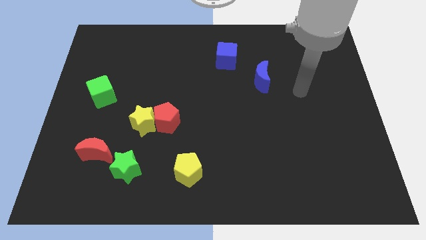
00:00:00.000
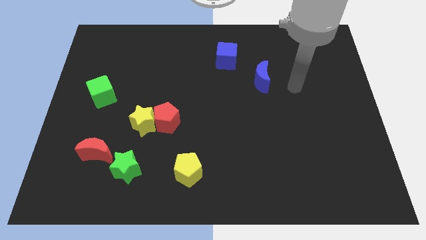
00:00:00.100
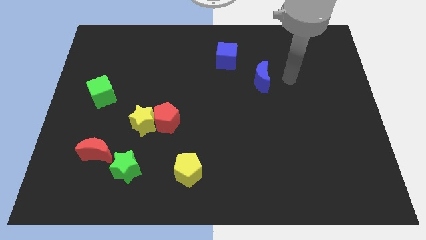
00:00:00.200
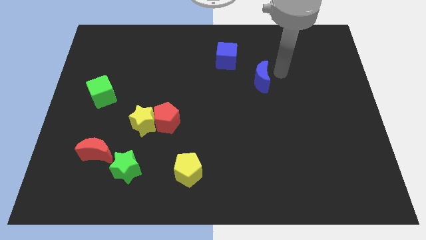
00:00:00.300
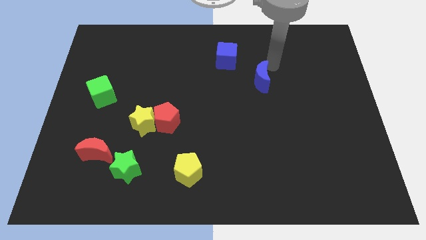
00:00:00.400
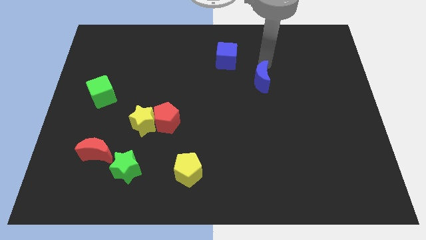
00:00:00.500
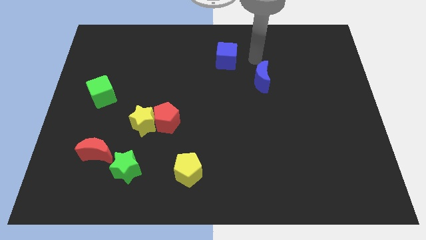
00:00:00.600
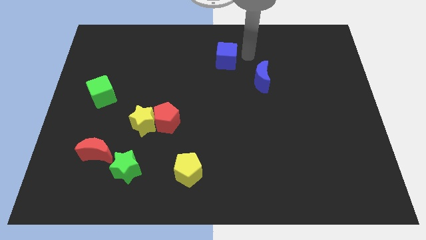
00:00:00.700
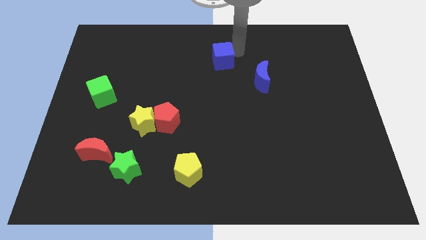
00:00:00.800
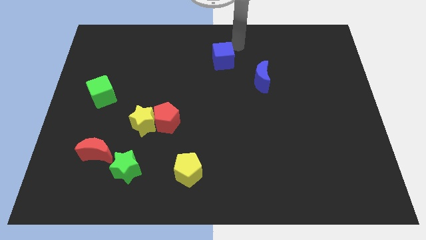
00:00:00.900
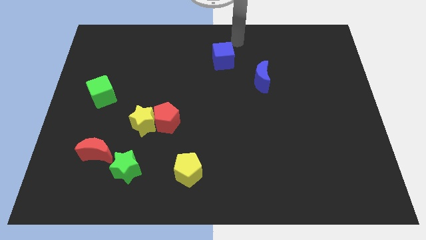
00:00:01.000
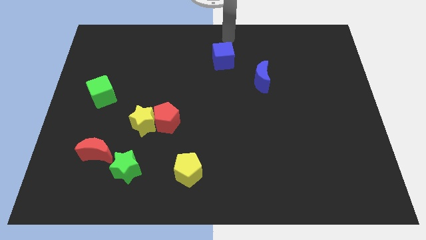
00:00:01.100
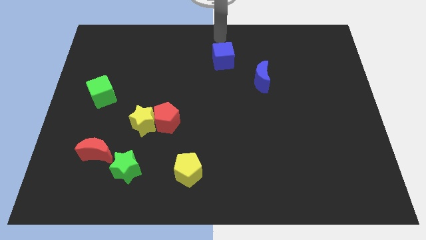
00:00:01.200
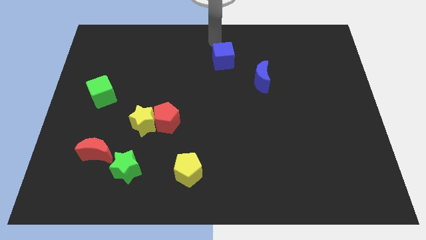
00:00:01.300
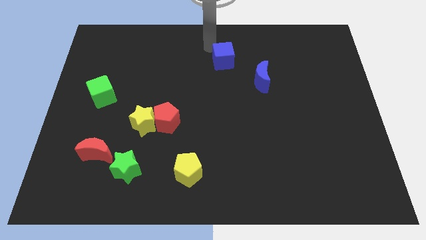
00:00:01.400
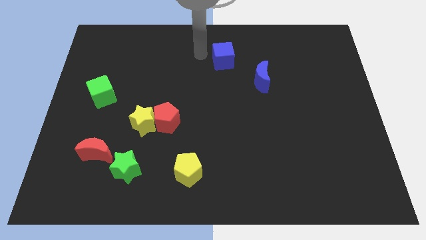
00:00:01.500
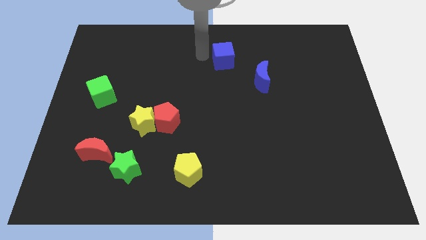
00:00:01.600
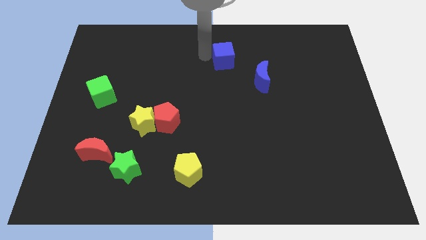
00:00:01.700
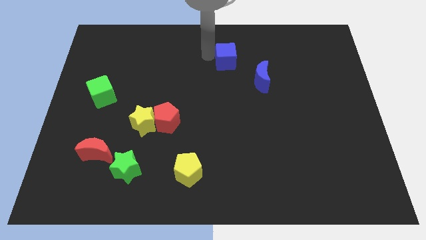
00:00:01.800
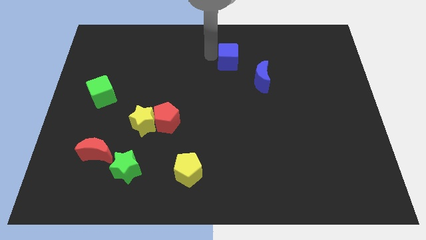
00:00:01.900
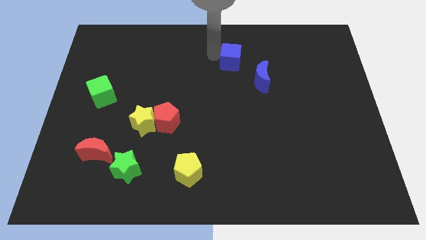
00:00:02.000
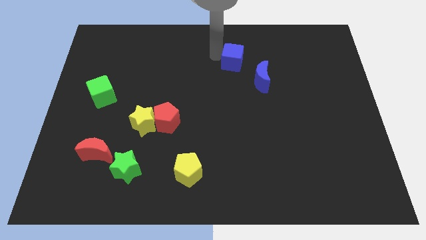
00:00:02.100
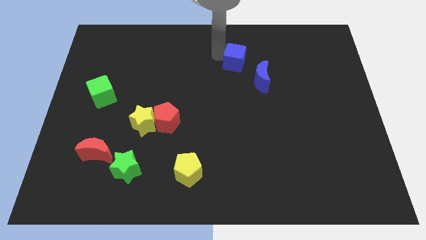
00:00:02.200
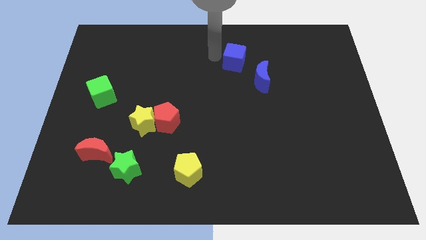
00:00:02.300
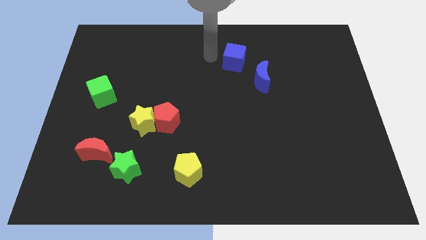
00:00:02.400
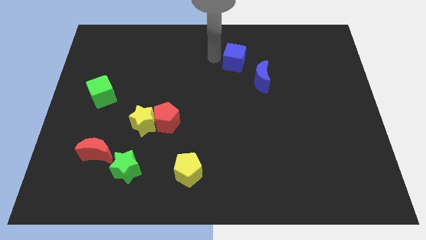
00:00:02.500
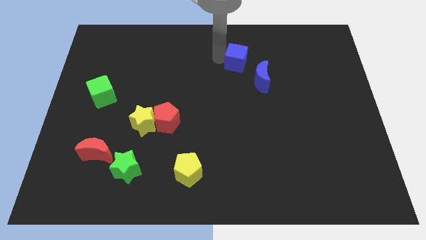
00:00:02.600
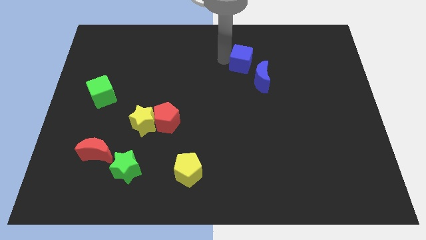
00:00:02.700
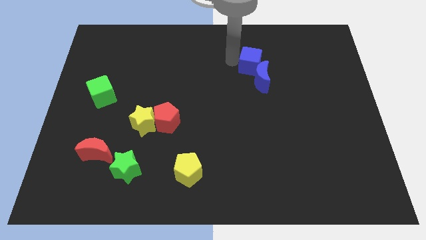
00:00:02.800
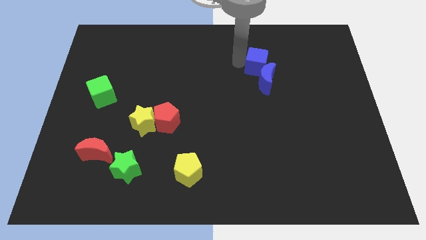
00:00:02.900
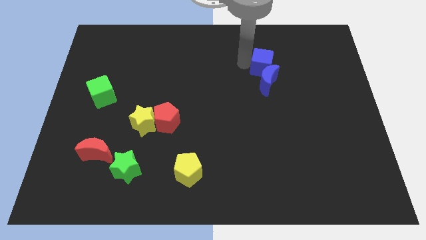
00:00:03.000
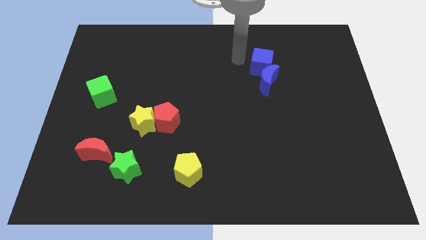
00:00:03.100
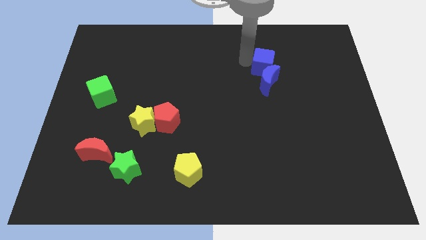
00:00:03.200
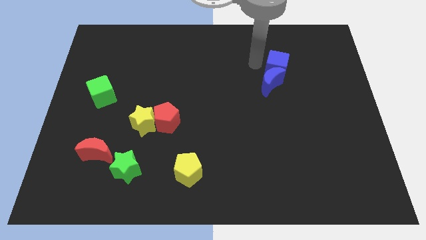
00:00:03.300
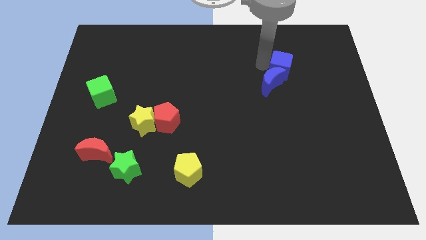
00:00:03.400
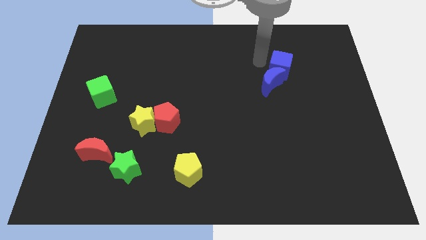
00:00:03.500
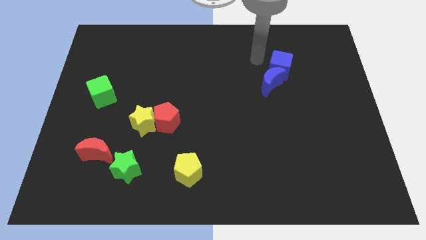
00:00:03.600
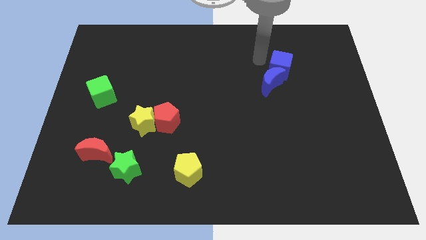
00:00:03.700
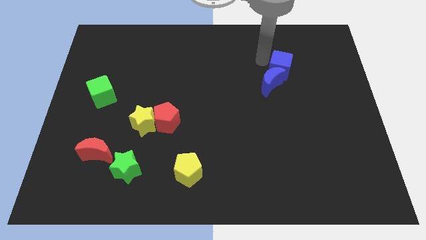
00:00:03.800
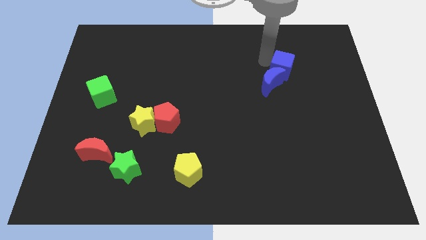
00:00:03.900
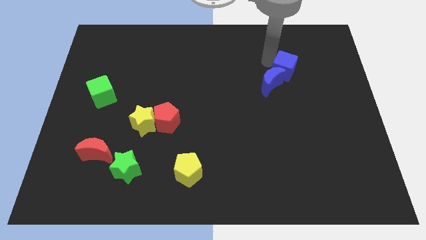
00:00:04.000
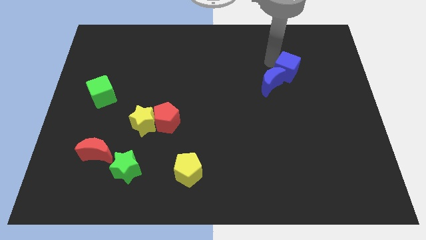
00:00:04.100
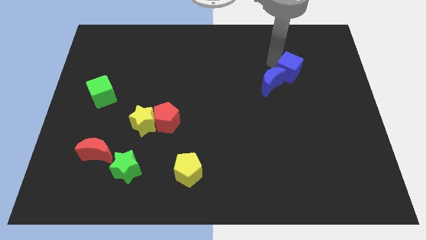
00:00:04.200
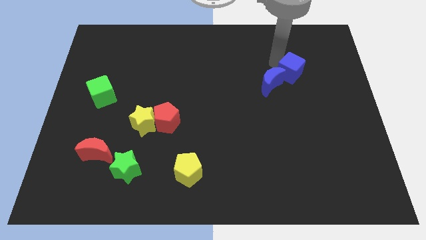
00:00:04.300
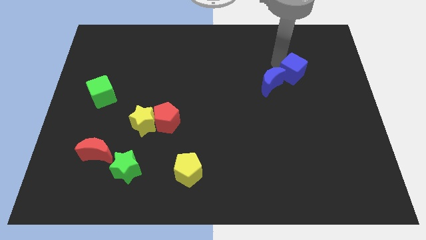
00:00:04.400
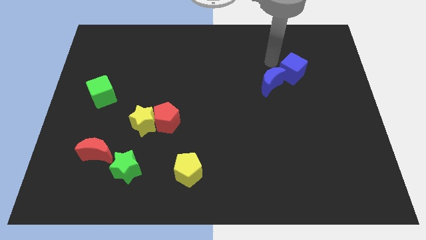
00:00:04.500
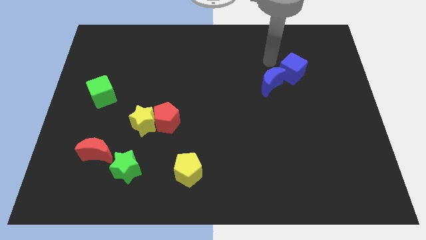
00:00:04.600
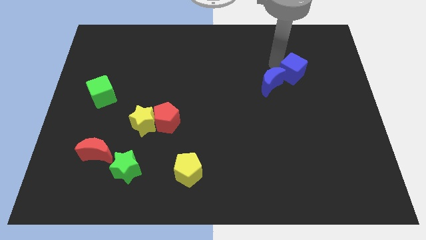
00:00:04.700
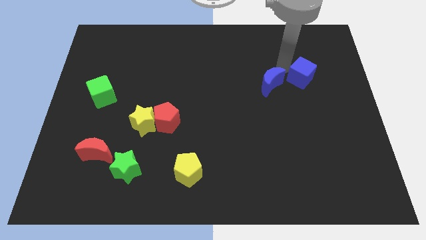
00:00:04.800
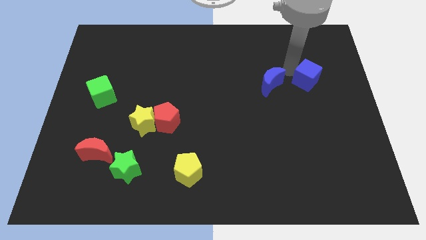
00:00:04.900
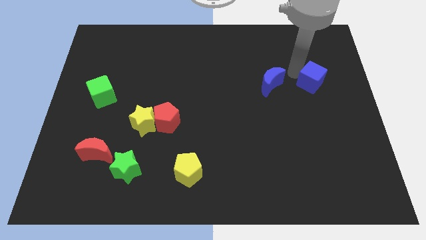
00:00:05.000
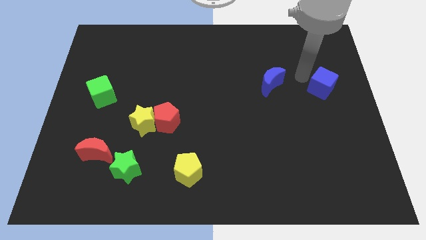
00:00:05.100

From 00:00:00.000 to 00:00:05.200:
slide the blue cube to the center right

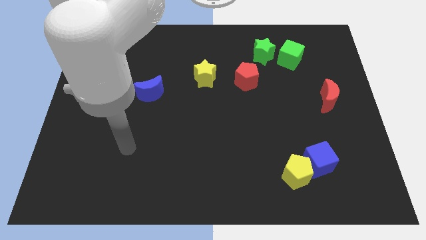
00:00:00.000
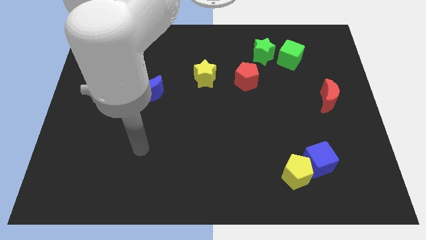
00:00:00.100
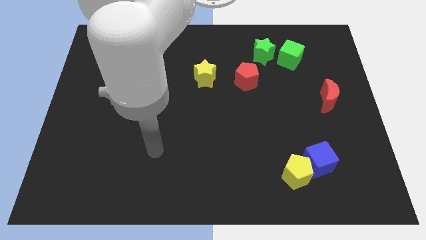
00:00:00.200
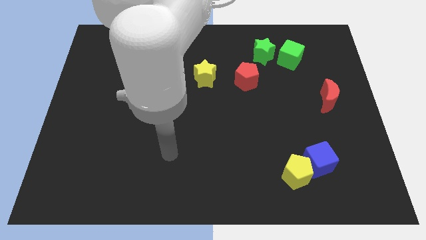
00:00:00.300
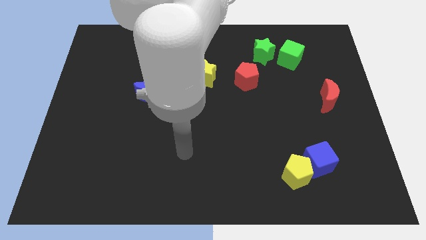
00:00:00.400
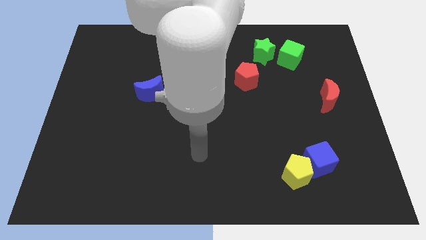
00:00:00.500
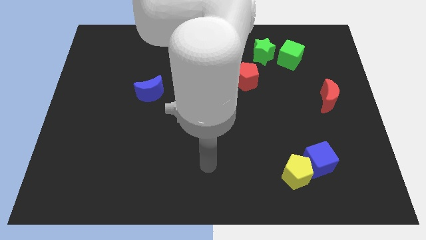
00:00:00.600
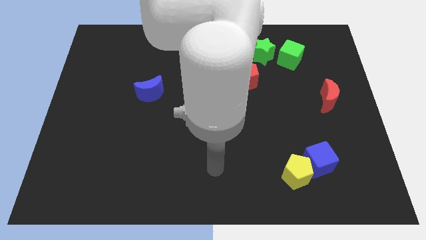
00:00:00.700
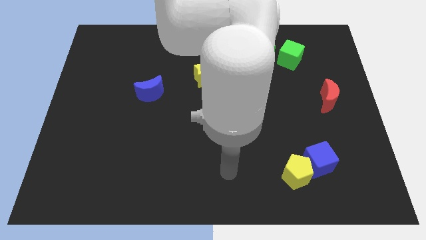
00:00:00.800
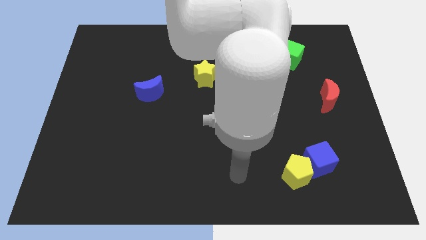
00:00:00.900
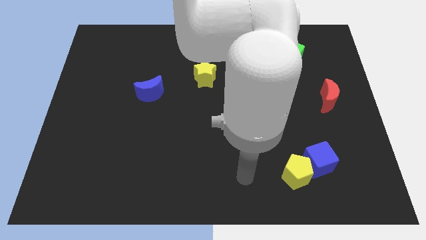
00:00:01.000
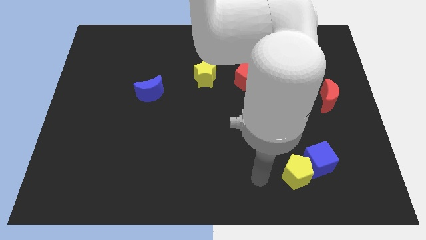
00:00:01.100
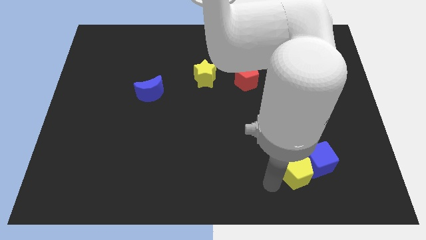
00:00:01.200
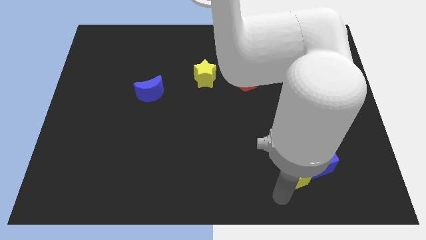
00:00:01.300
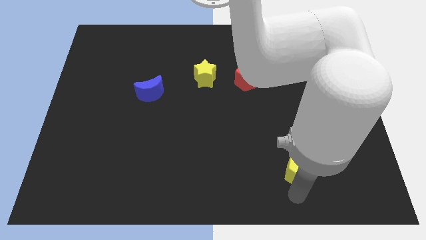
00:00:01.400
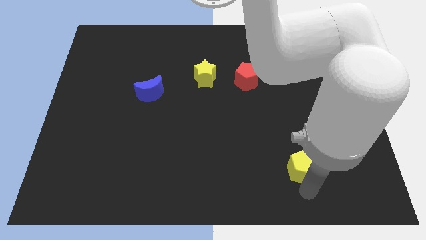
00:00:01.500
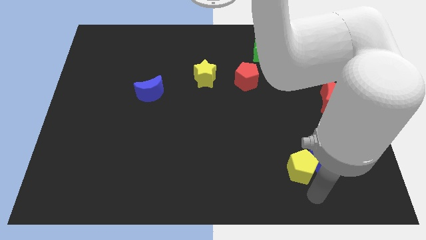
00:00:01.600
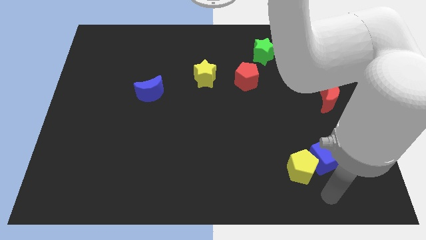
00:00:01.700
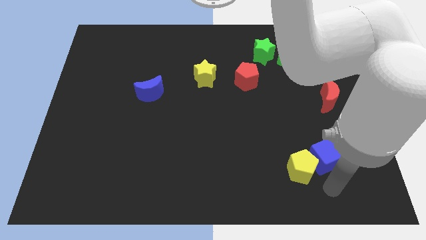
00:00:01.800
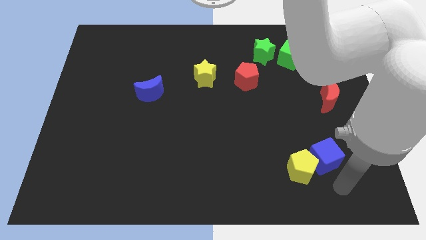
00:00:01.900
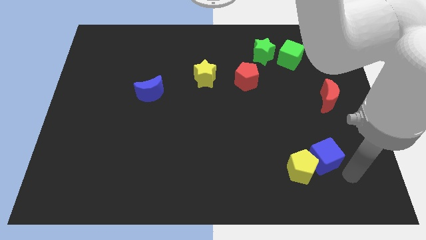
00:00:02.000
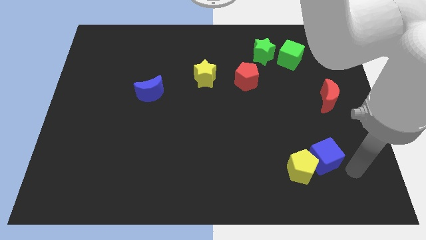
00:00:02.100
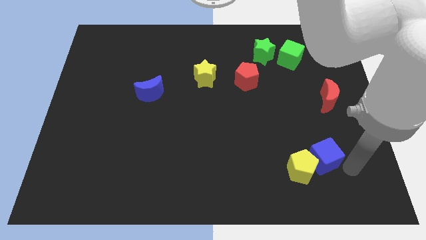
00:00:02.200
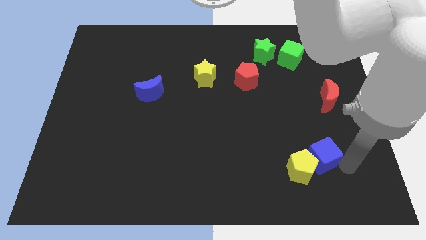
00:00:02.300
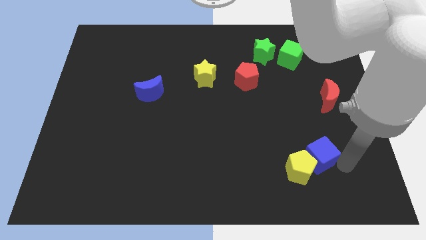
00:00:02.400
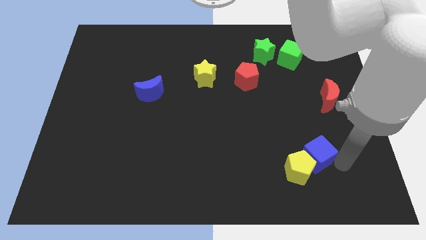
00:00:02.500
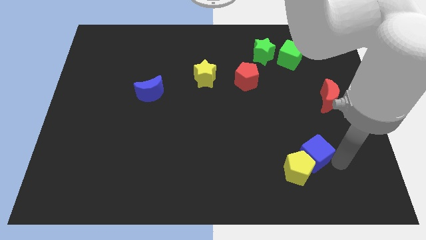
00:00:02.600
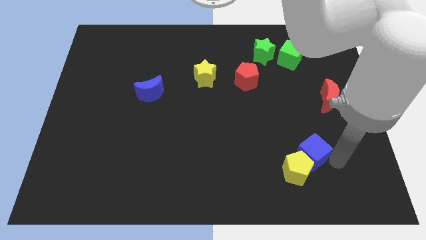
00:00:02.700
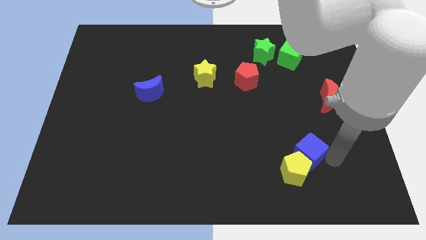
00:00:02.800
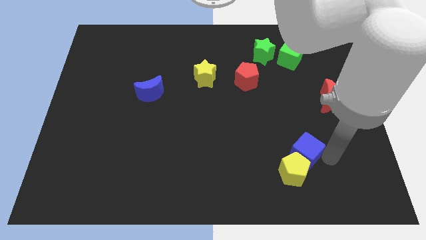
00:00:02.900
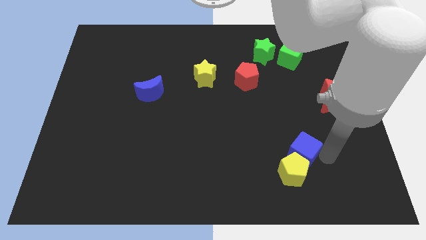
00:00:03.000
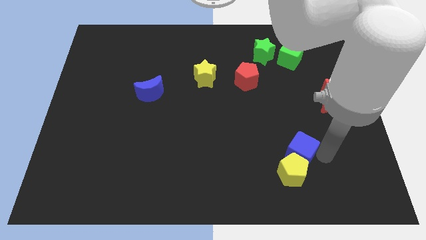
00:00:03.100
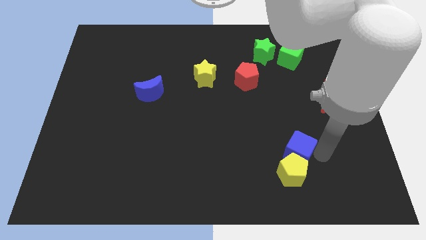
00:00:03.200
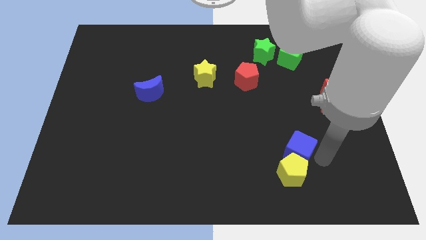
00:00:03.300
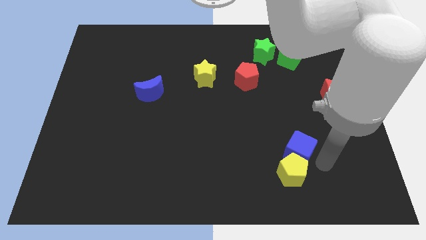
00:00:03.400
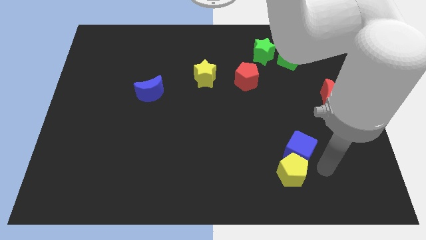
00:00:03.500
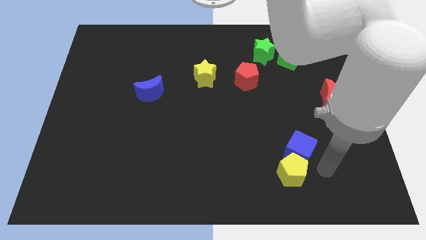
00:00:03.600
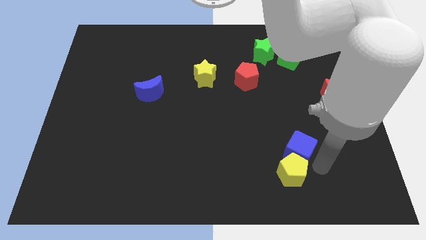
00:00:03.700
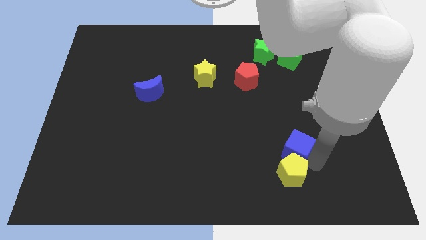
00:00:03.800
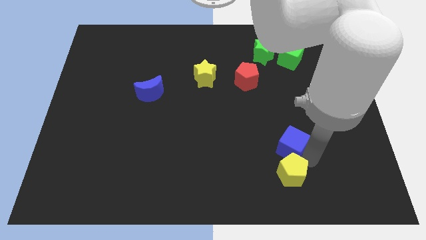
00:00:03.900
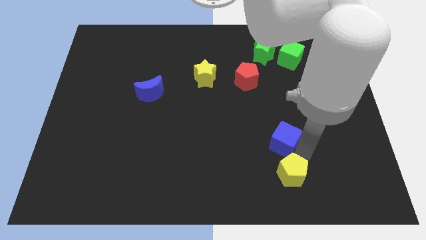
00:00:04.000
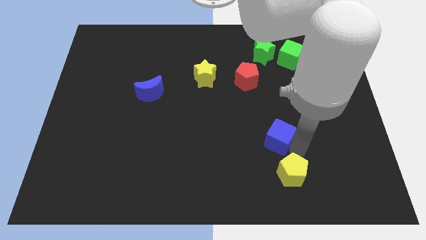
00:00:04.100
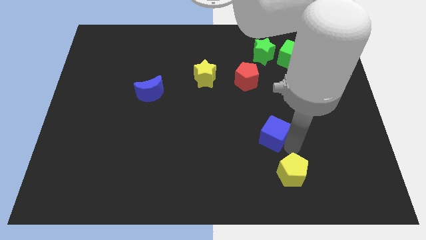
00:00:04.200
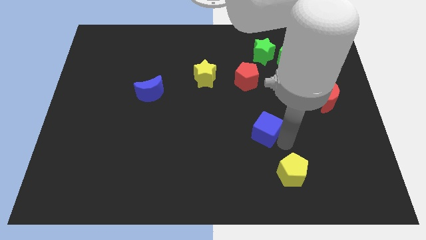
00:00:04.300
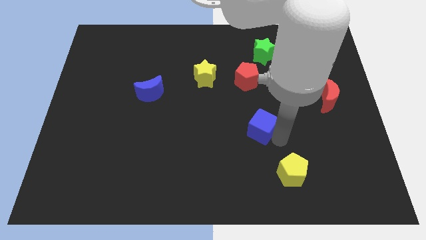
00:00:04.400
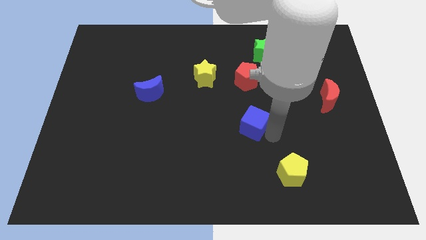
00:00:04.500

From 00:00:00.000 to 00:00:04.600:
move the blue cube to the center
